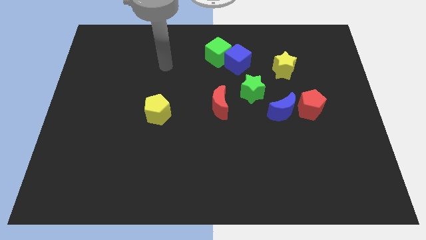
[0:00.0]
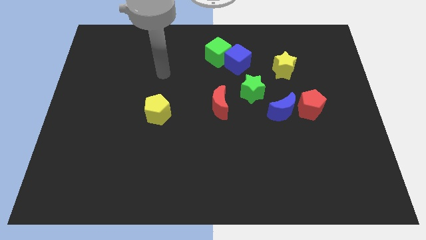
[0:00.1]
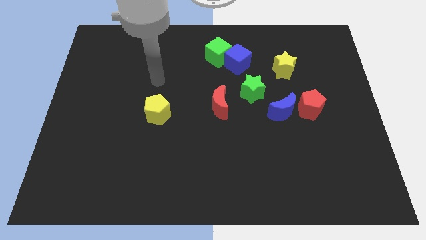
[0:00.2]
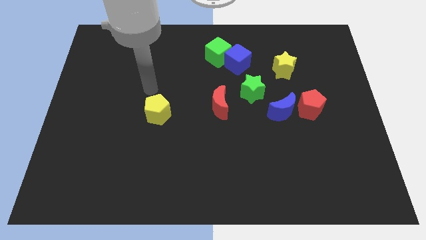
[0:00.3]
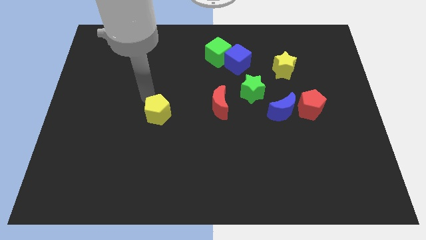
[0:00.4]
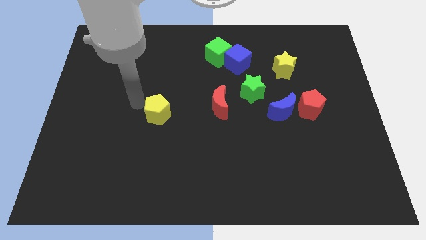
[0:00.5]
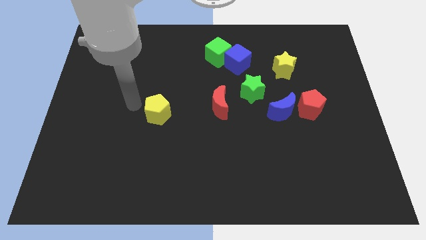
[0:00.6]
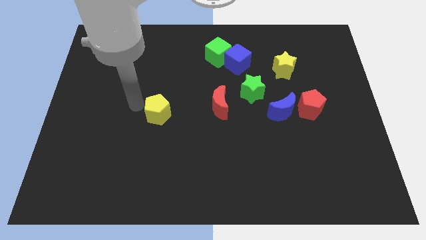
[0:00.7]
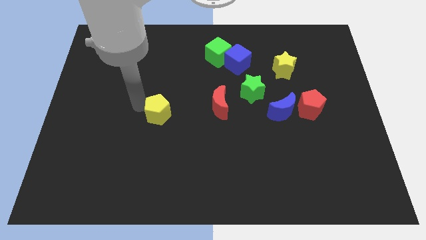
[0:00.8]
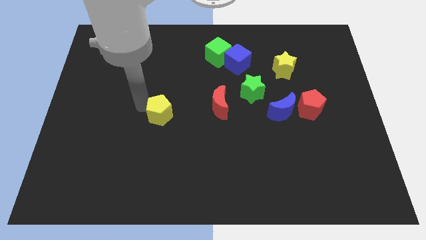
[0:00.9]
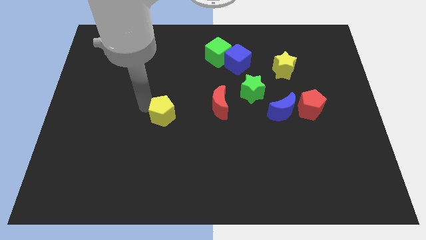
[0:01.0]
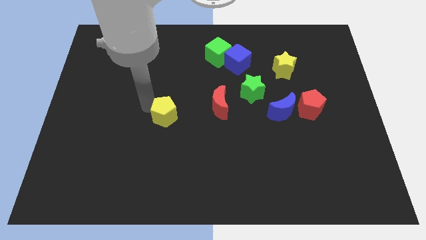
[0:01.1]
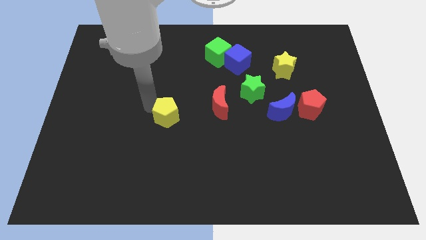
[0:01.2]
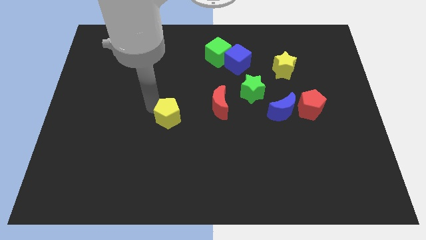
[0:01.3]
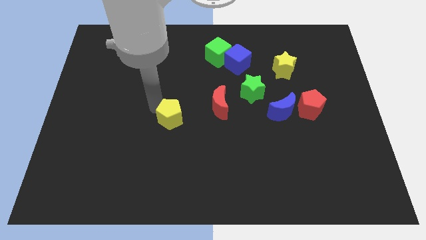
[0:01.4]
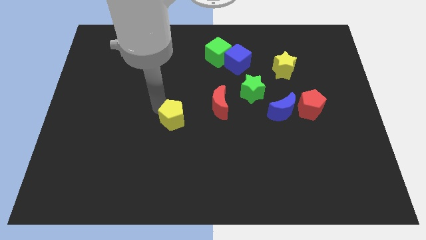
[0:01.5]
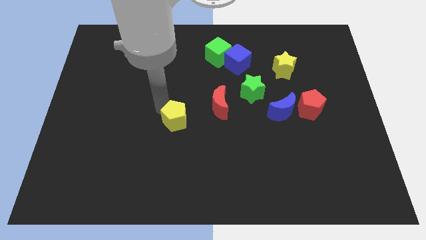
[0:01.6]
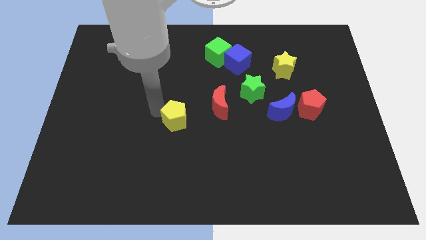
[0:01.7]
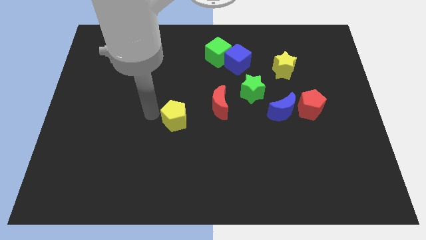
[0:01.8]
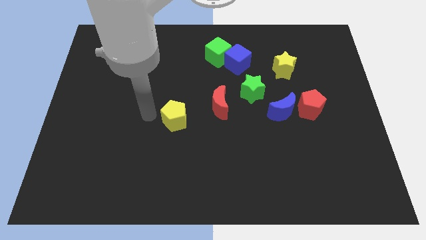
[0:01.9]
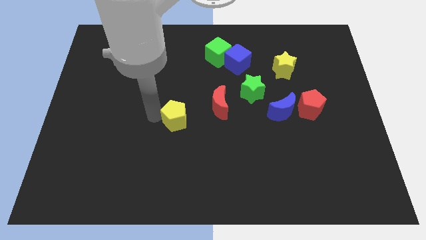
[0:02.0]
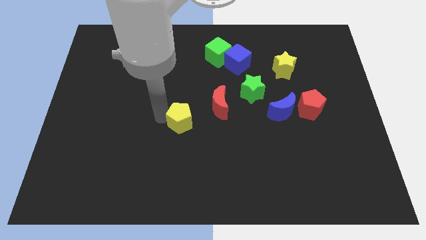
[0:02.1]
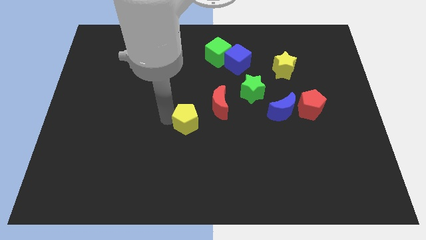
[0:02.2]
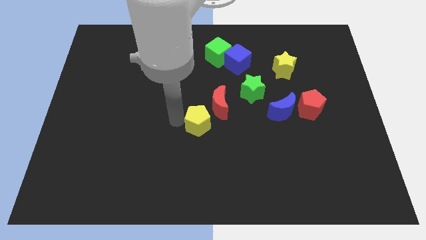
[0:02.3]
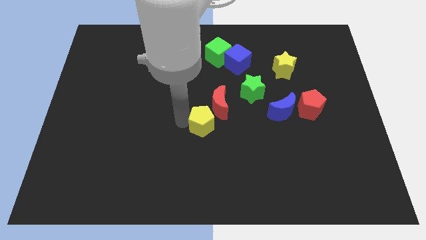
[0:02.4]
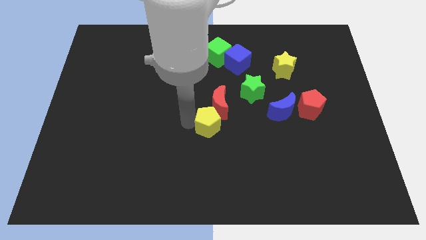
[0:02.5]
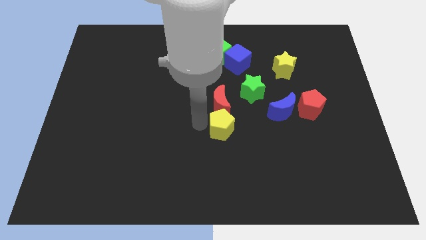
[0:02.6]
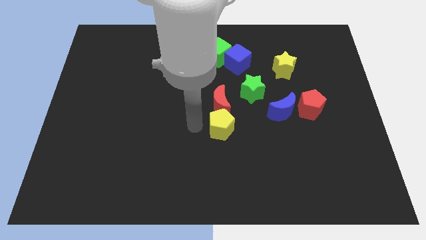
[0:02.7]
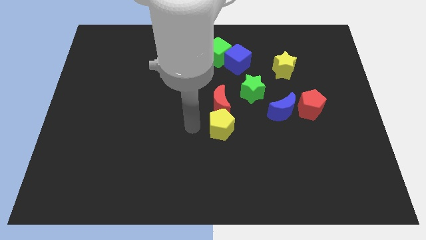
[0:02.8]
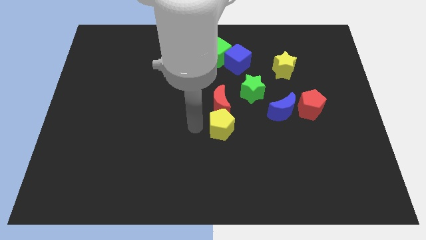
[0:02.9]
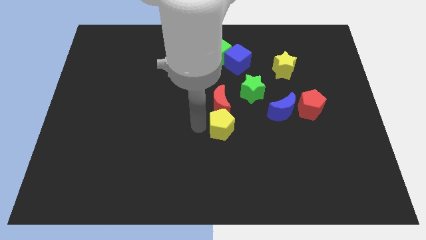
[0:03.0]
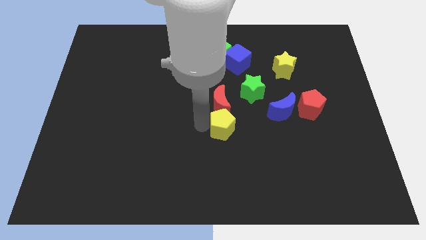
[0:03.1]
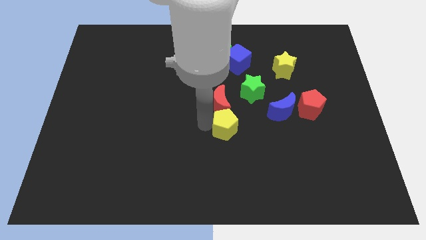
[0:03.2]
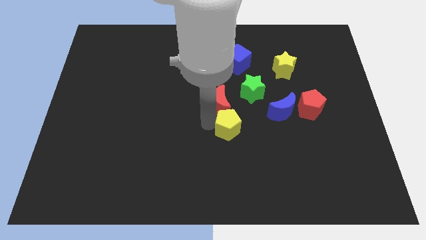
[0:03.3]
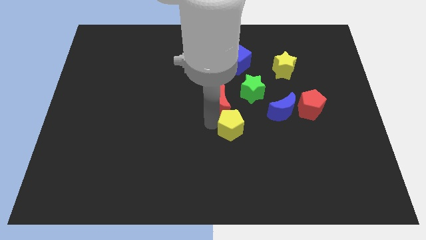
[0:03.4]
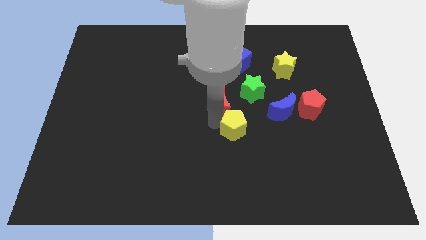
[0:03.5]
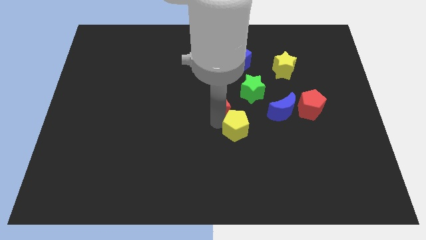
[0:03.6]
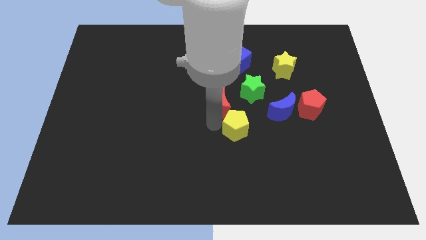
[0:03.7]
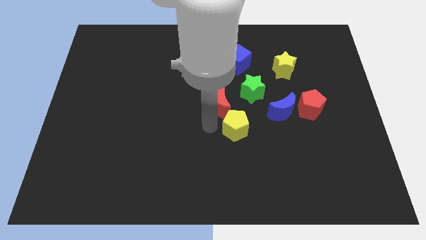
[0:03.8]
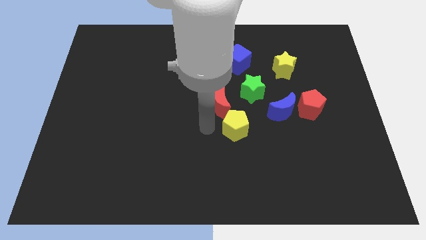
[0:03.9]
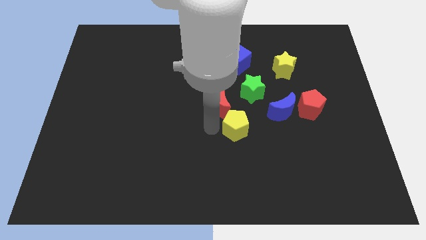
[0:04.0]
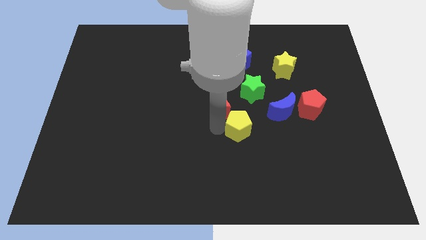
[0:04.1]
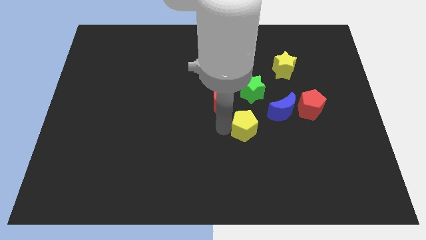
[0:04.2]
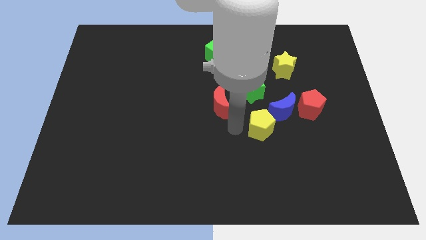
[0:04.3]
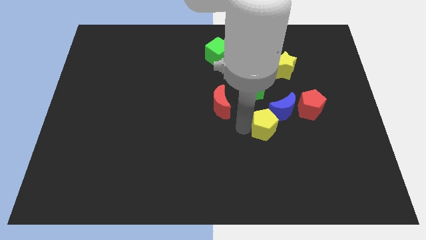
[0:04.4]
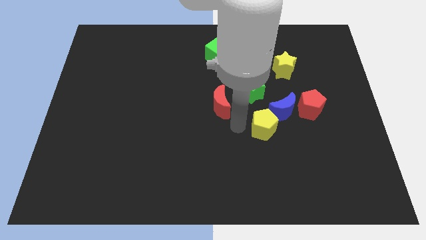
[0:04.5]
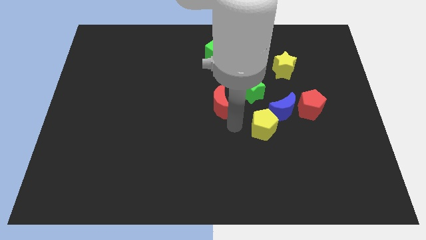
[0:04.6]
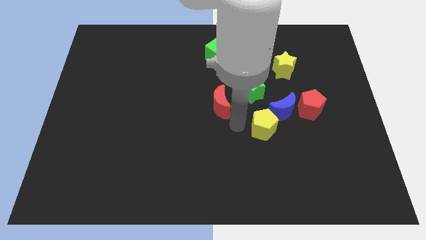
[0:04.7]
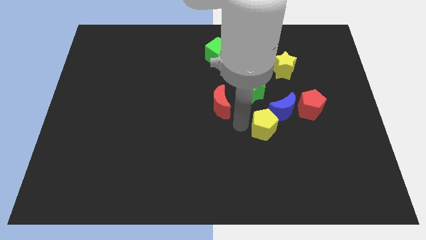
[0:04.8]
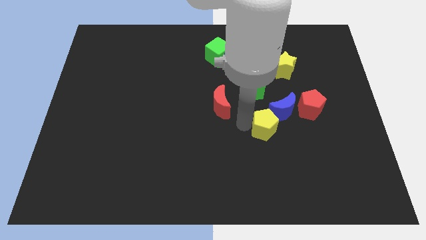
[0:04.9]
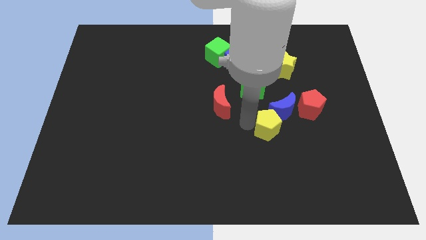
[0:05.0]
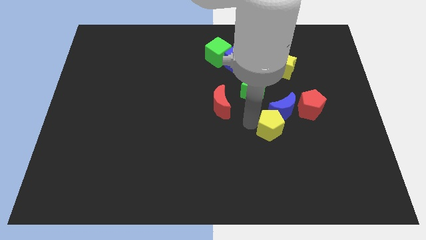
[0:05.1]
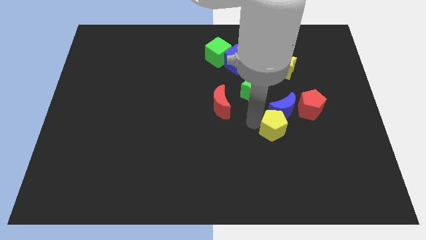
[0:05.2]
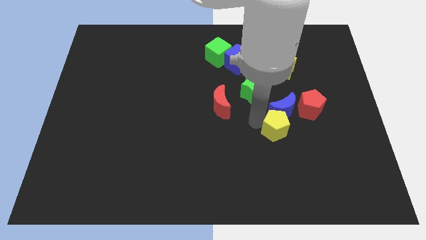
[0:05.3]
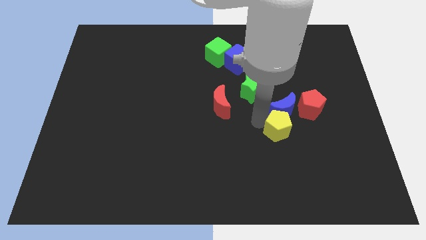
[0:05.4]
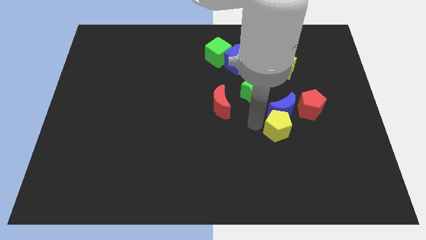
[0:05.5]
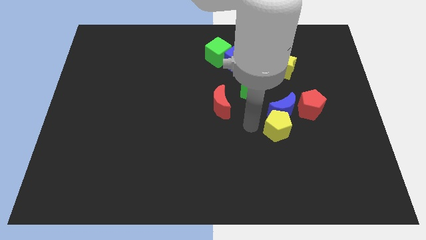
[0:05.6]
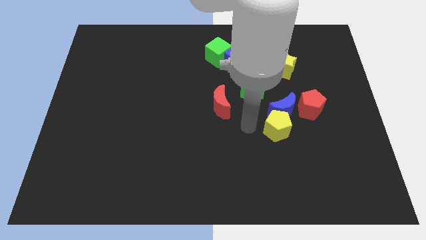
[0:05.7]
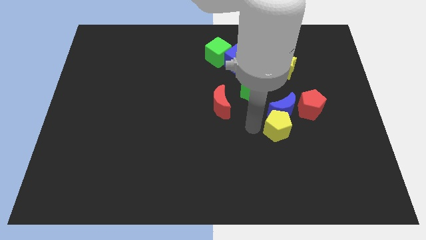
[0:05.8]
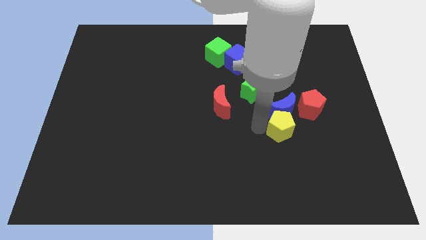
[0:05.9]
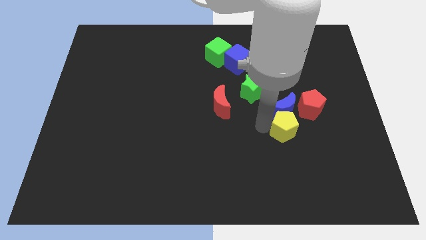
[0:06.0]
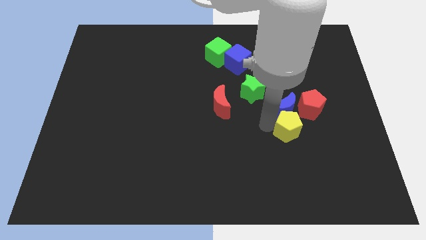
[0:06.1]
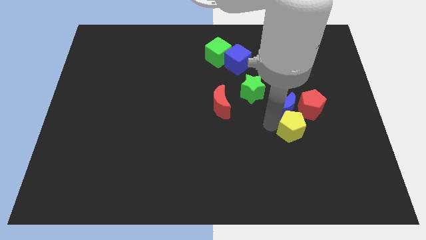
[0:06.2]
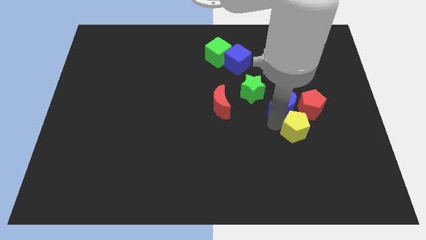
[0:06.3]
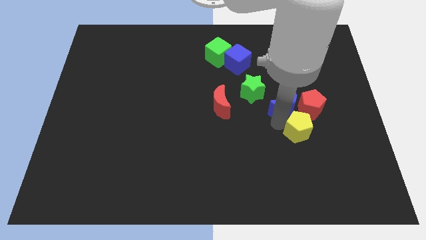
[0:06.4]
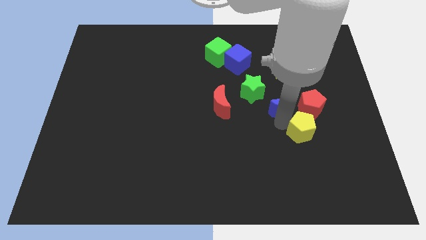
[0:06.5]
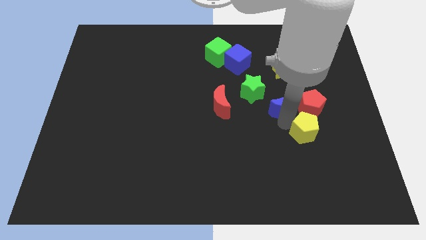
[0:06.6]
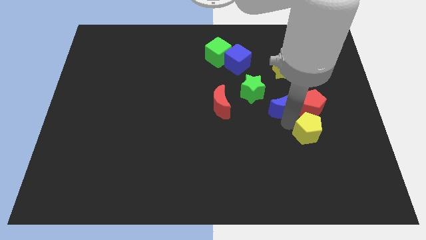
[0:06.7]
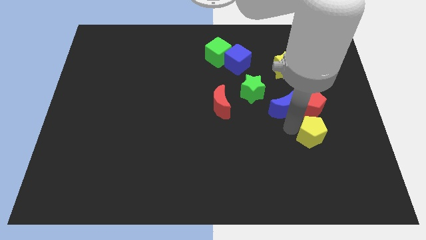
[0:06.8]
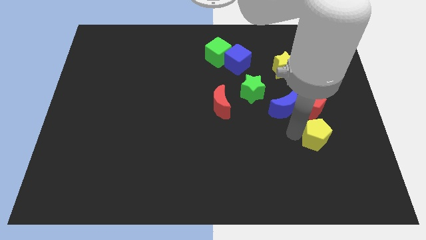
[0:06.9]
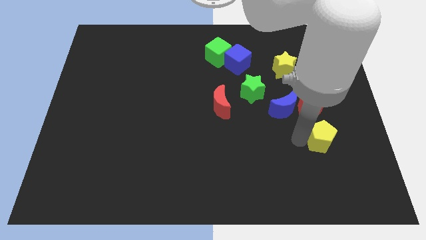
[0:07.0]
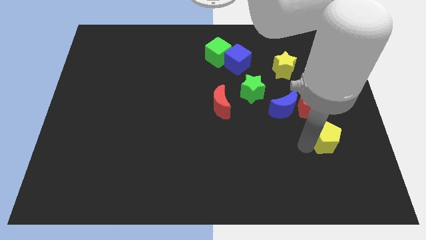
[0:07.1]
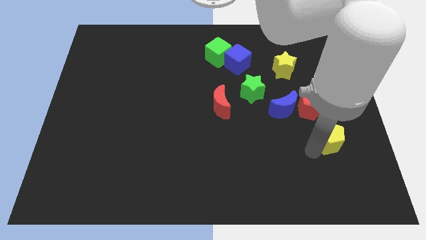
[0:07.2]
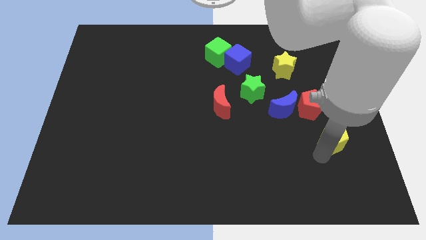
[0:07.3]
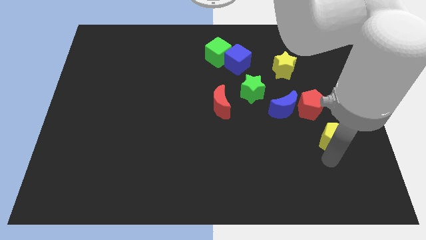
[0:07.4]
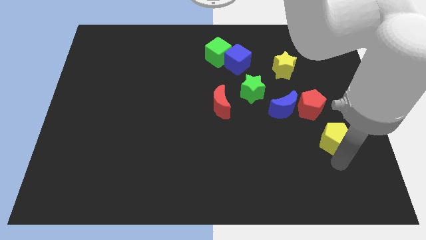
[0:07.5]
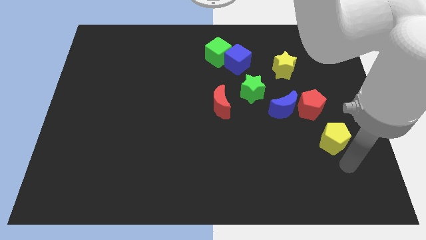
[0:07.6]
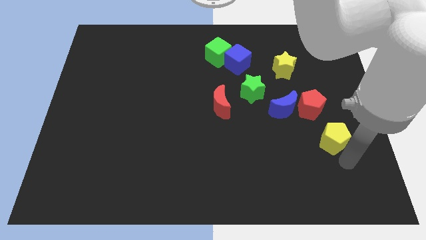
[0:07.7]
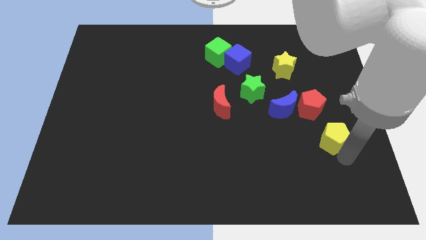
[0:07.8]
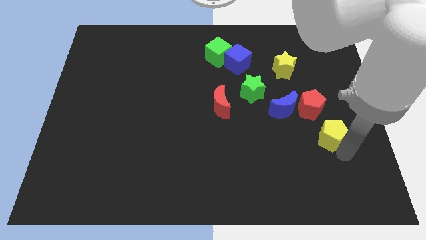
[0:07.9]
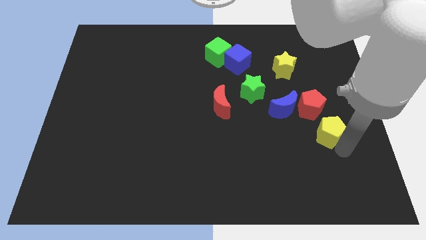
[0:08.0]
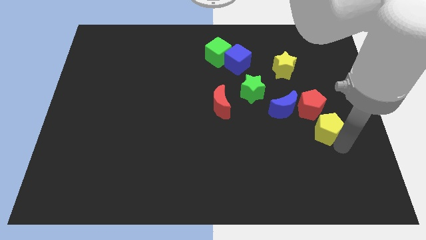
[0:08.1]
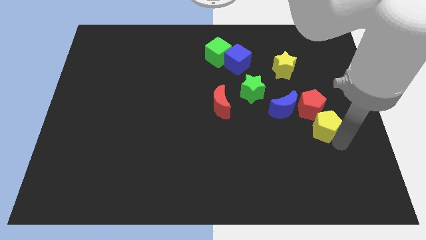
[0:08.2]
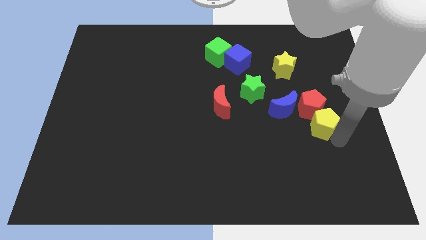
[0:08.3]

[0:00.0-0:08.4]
move the yellow pentagon close to the red pentagon
